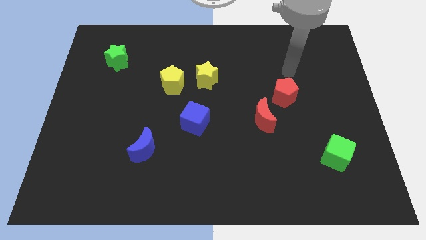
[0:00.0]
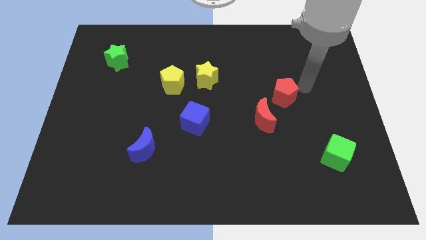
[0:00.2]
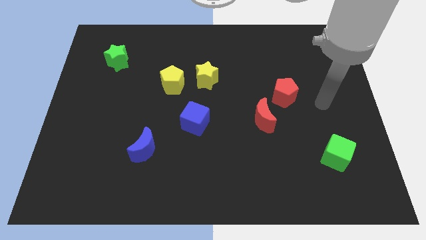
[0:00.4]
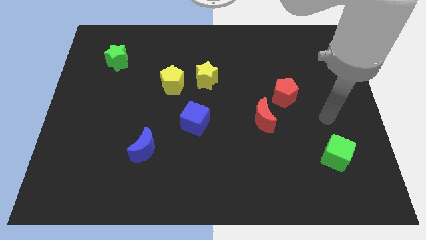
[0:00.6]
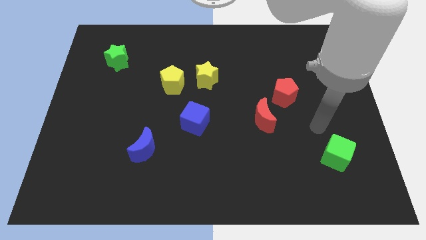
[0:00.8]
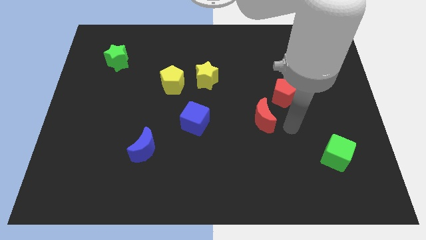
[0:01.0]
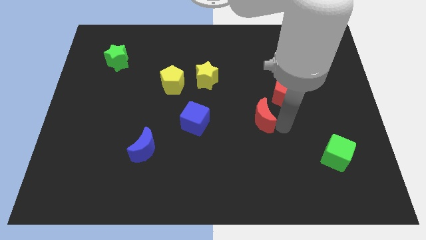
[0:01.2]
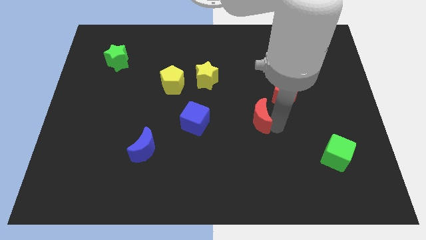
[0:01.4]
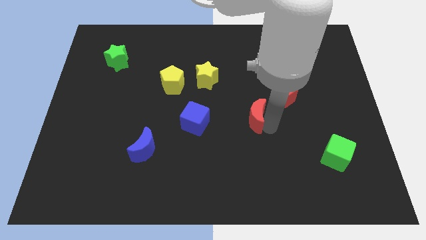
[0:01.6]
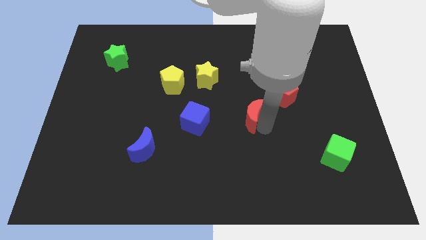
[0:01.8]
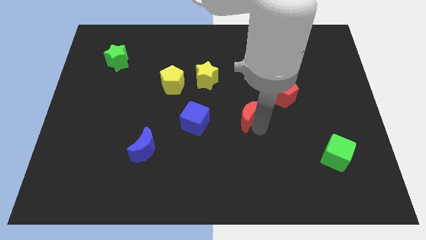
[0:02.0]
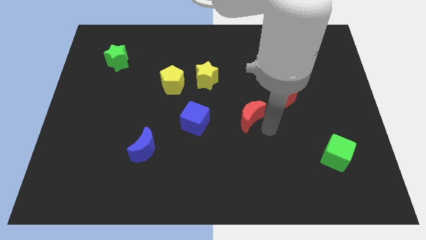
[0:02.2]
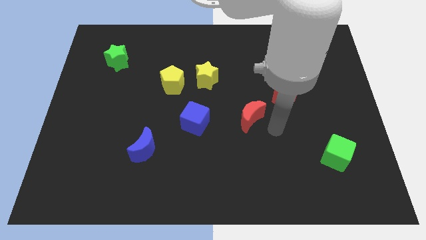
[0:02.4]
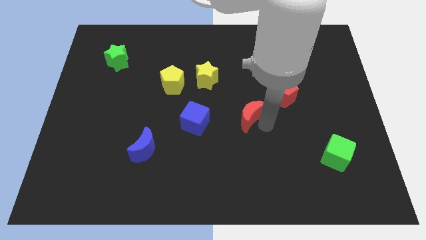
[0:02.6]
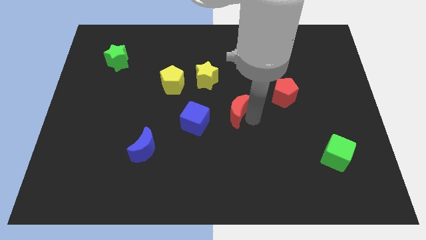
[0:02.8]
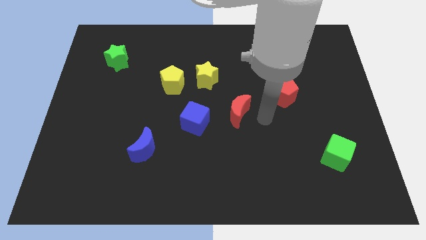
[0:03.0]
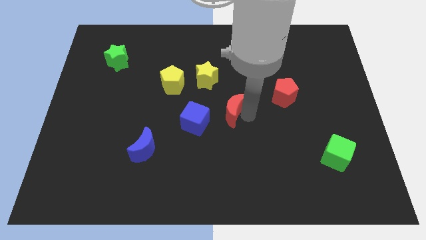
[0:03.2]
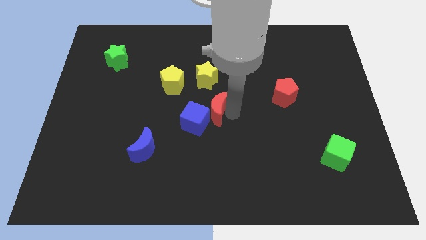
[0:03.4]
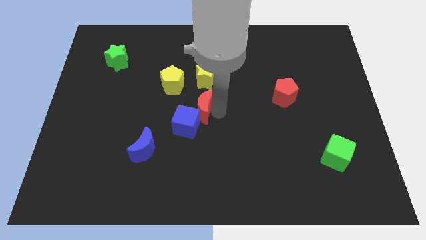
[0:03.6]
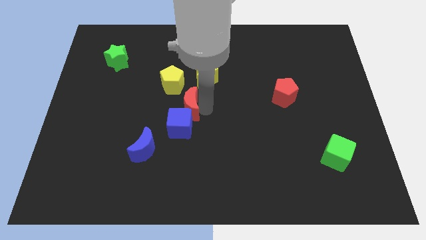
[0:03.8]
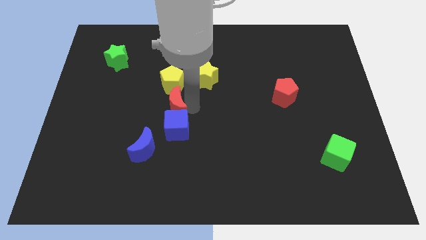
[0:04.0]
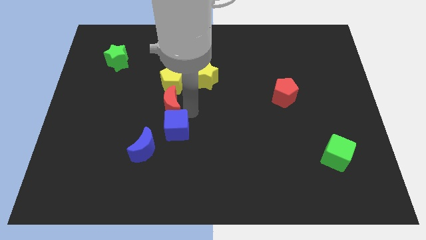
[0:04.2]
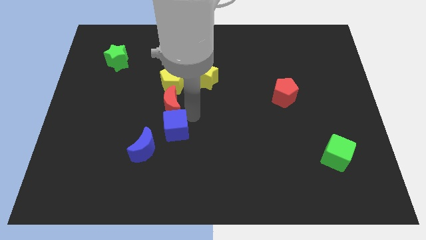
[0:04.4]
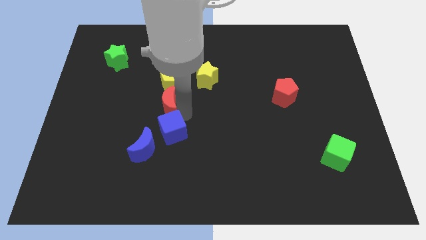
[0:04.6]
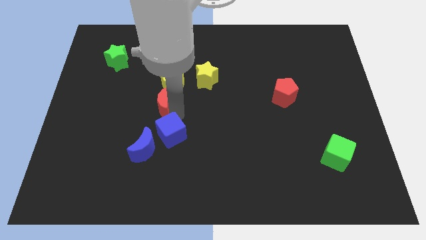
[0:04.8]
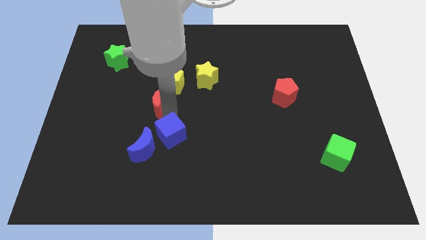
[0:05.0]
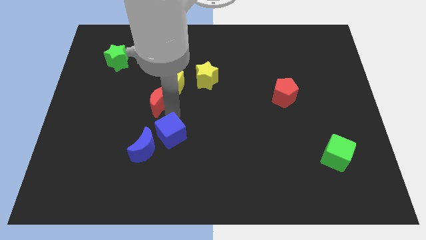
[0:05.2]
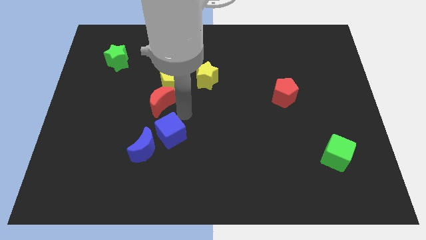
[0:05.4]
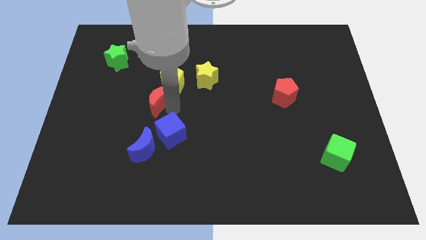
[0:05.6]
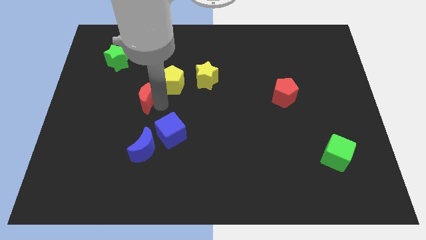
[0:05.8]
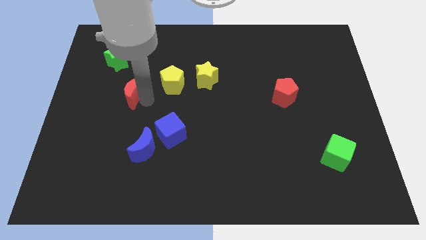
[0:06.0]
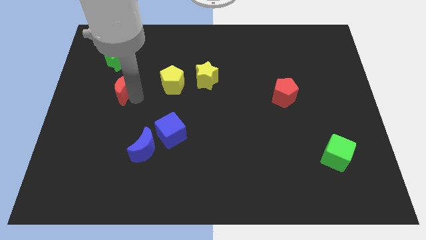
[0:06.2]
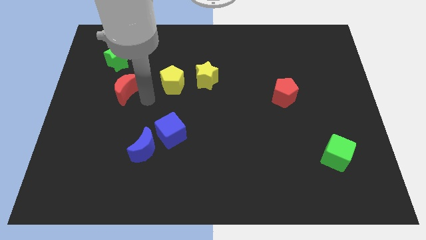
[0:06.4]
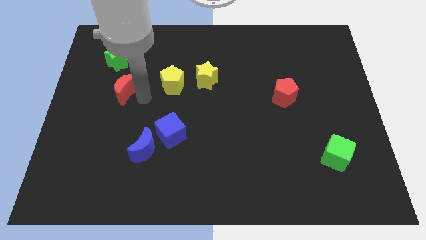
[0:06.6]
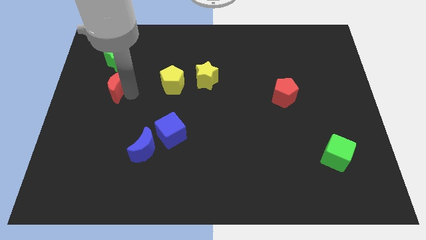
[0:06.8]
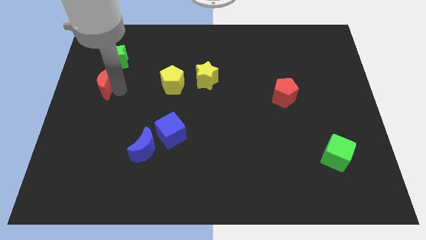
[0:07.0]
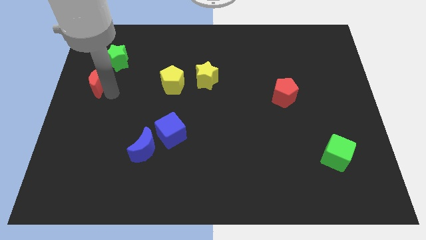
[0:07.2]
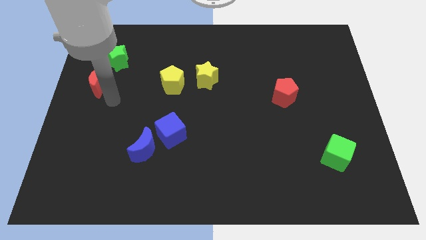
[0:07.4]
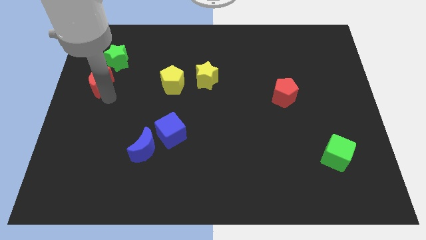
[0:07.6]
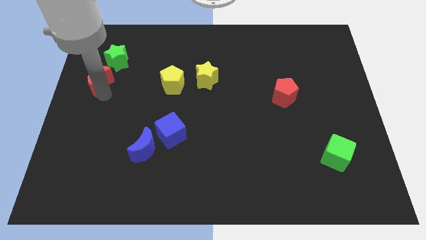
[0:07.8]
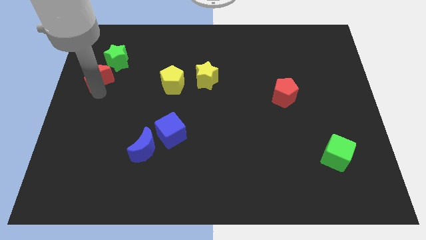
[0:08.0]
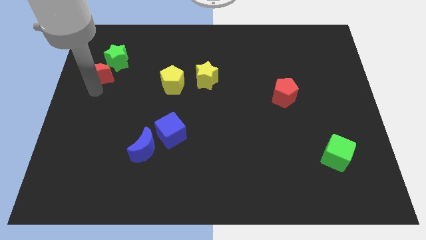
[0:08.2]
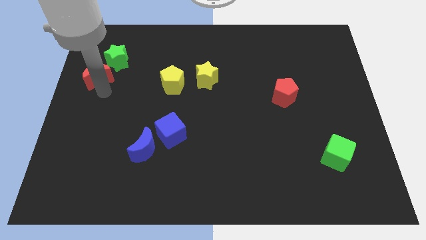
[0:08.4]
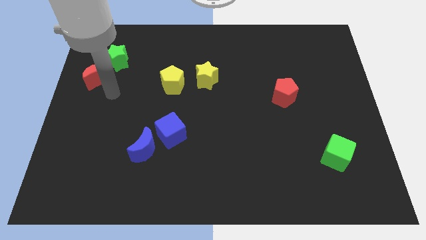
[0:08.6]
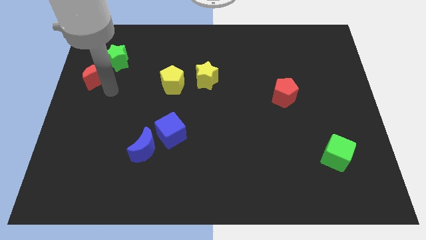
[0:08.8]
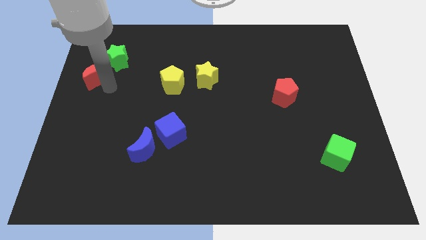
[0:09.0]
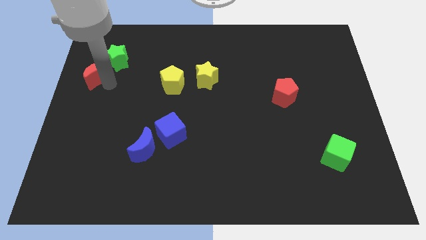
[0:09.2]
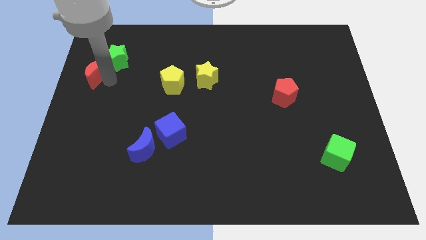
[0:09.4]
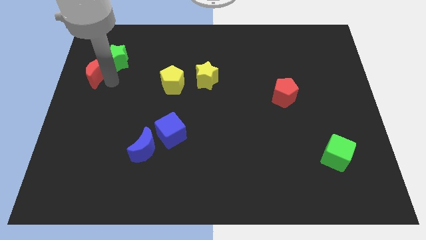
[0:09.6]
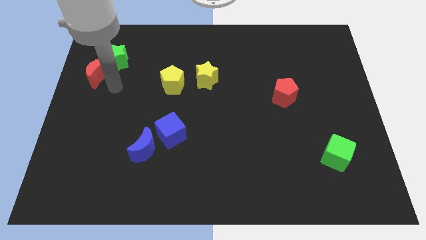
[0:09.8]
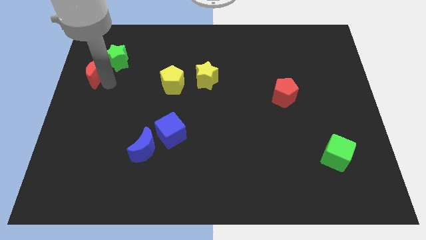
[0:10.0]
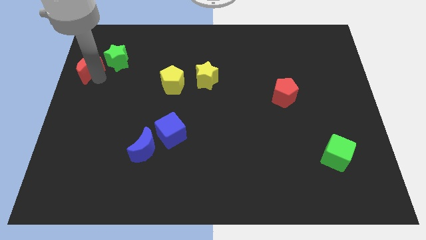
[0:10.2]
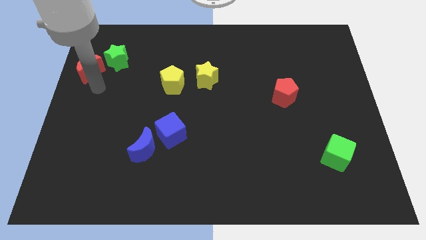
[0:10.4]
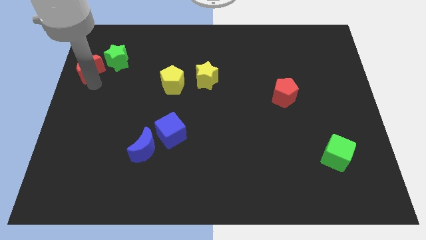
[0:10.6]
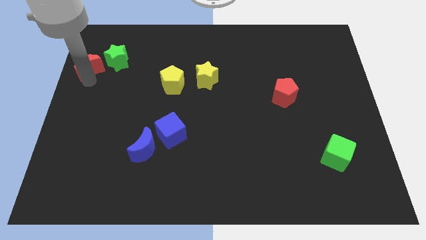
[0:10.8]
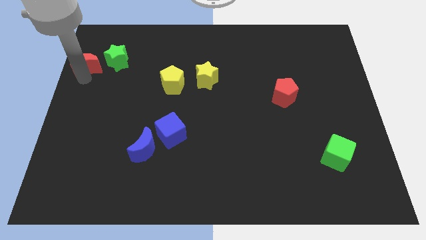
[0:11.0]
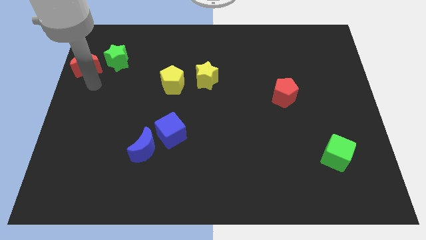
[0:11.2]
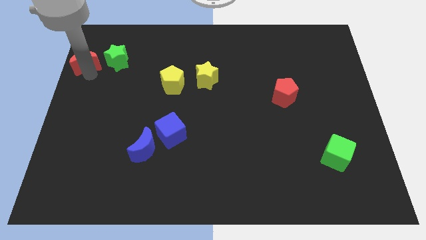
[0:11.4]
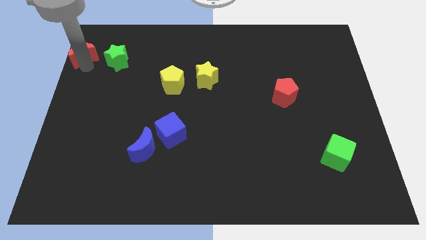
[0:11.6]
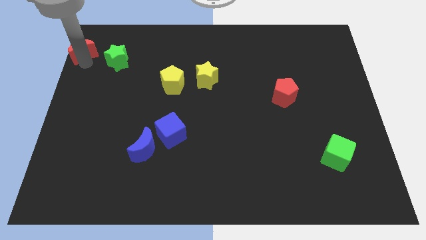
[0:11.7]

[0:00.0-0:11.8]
move the red moon to the top left

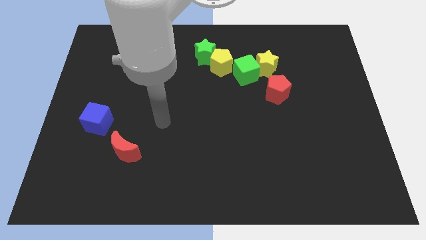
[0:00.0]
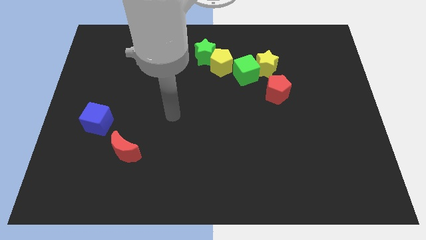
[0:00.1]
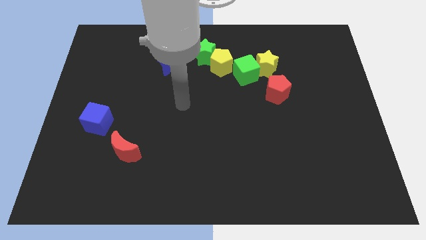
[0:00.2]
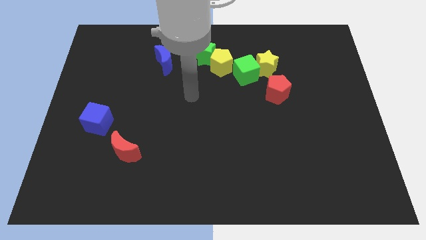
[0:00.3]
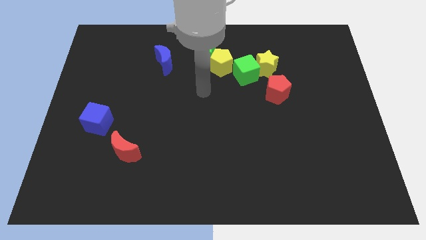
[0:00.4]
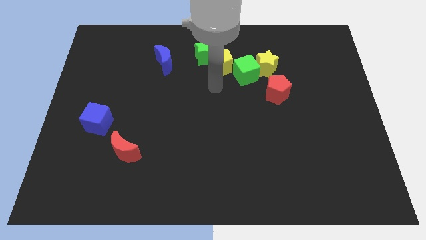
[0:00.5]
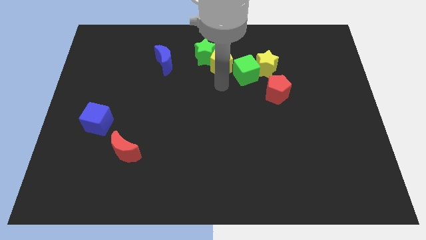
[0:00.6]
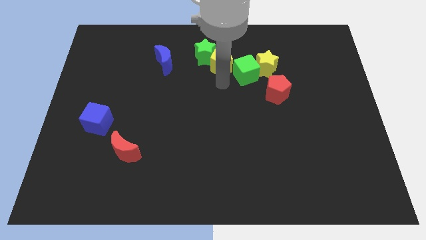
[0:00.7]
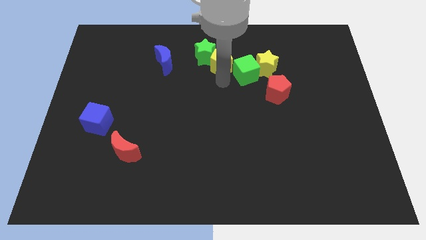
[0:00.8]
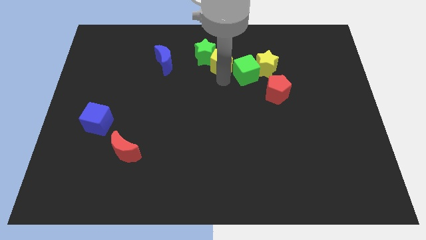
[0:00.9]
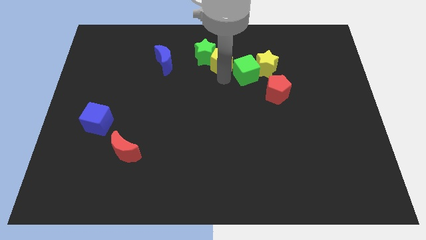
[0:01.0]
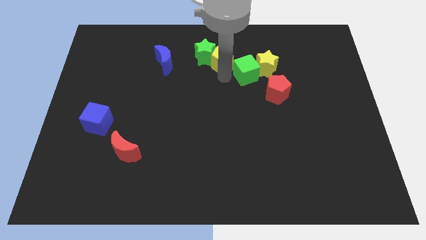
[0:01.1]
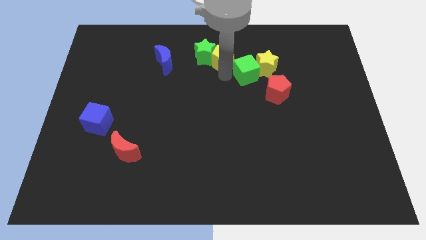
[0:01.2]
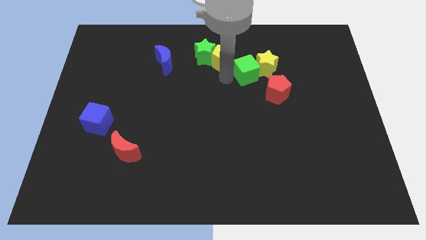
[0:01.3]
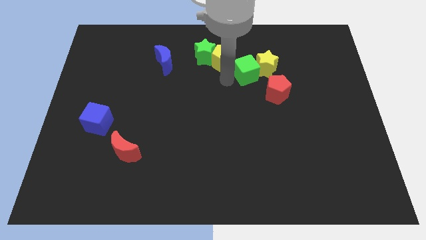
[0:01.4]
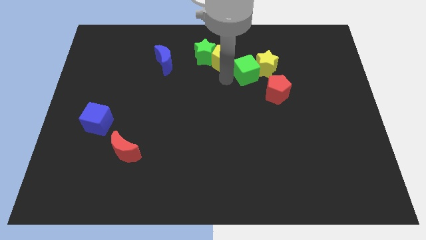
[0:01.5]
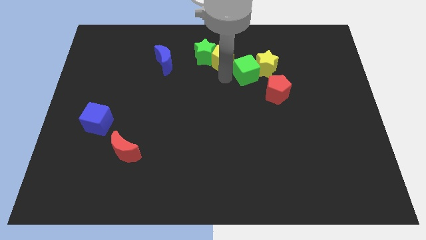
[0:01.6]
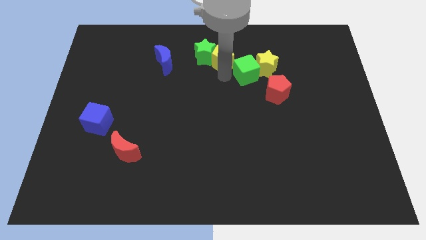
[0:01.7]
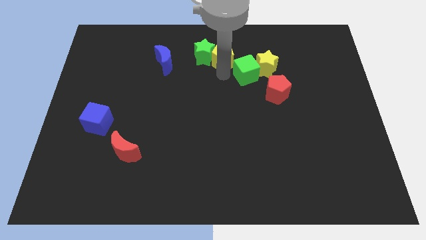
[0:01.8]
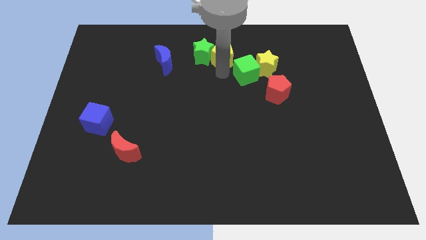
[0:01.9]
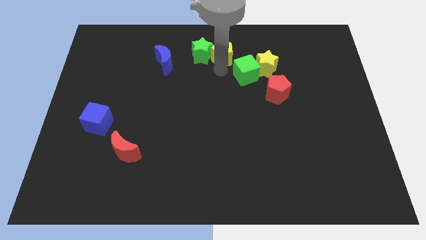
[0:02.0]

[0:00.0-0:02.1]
push the yellow pentagon to the top side
